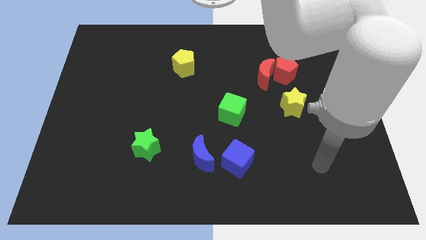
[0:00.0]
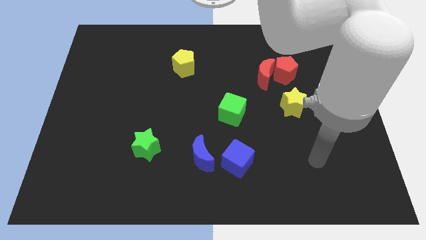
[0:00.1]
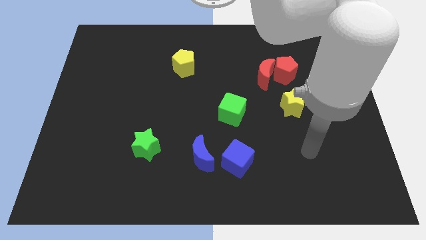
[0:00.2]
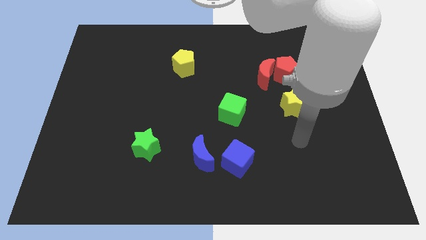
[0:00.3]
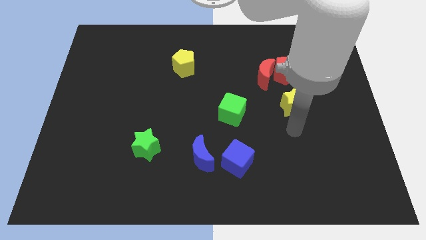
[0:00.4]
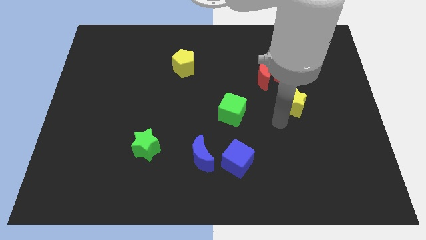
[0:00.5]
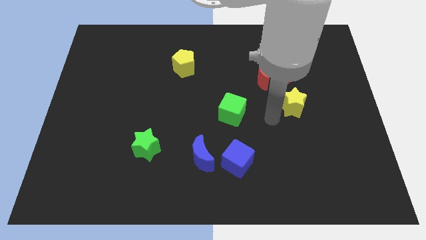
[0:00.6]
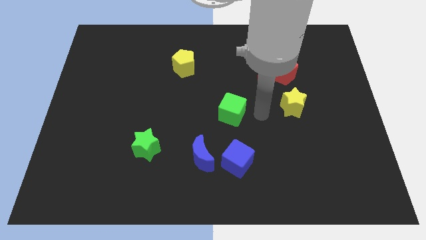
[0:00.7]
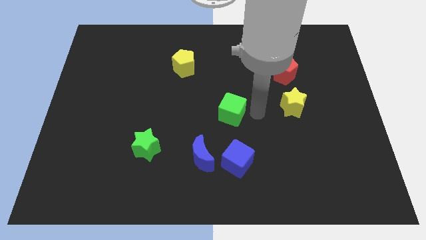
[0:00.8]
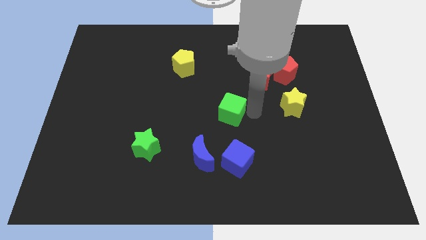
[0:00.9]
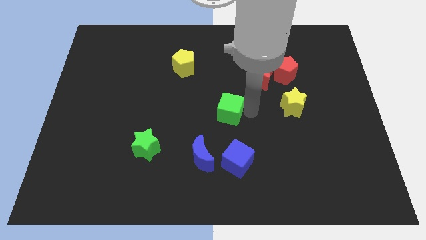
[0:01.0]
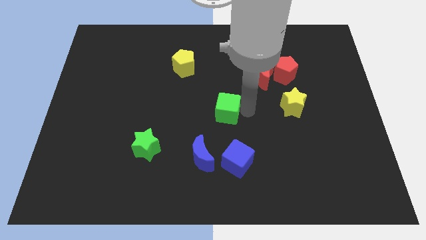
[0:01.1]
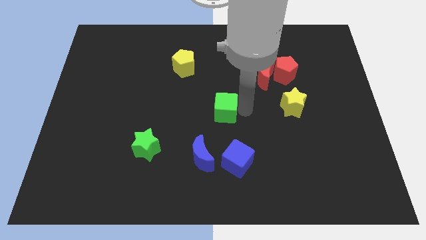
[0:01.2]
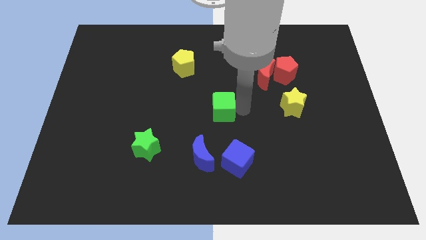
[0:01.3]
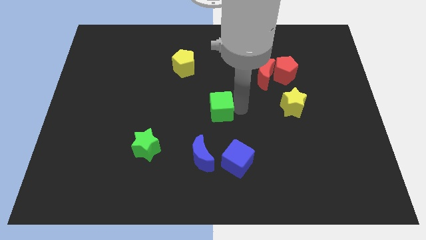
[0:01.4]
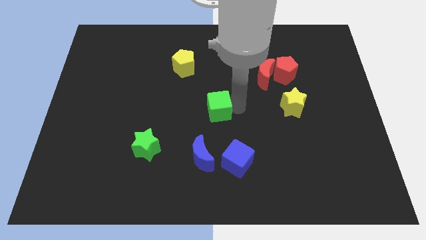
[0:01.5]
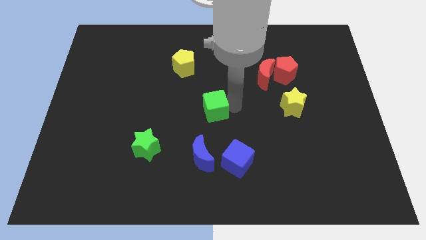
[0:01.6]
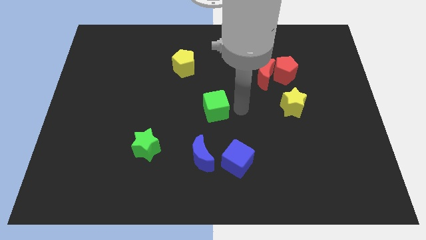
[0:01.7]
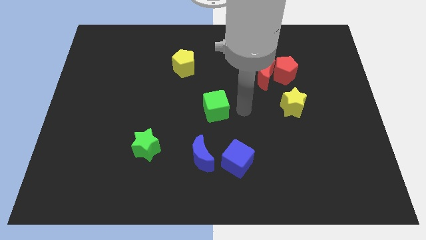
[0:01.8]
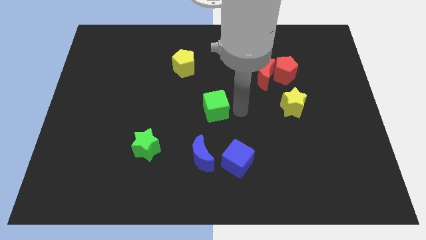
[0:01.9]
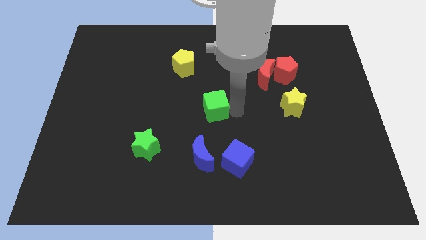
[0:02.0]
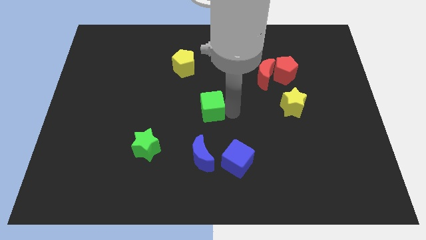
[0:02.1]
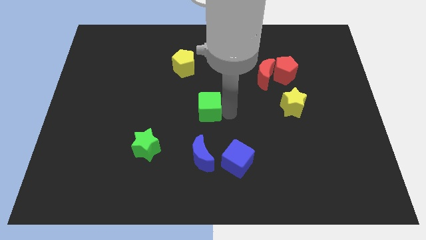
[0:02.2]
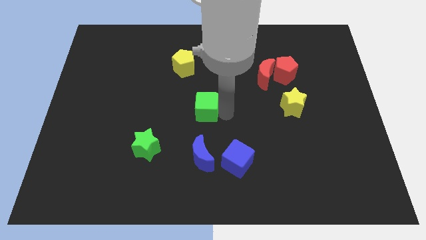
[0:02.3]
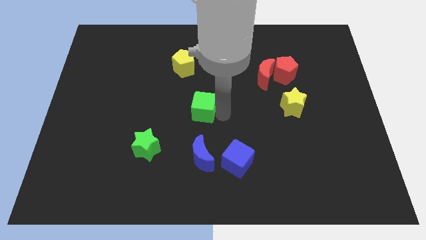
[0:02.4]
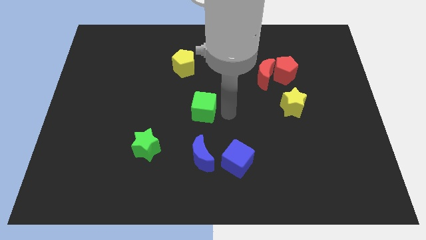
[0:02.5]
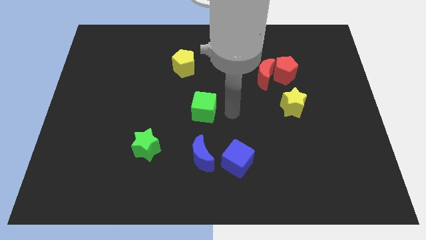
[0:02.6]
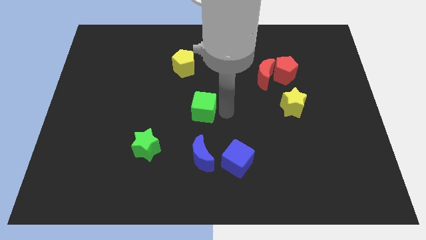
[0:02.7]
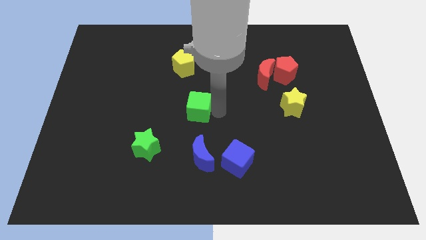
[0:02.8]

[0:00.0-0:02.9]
move the green cube to the left slightly

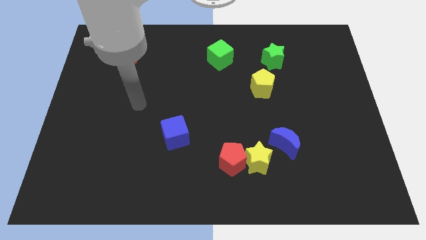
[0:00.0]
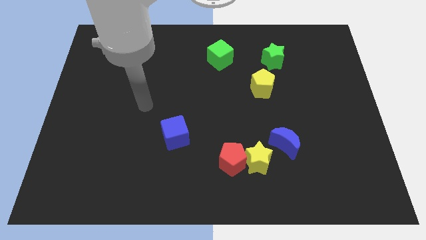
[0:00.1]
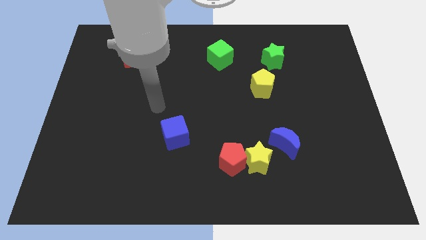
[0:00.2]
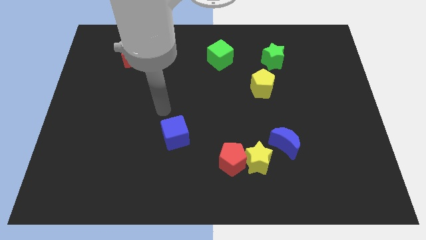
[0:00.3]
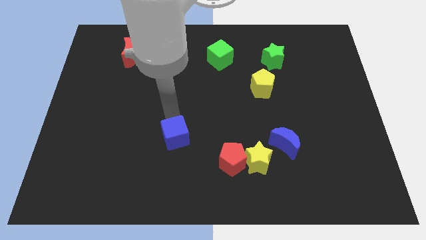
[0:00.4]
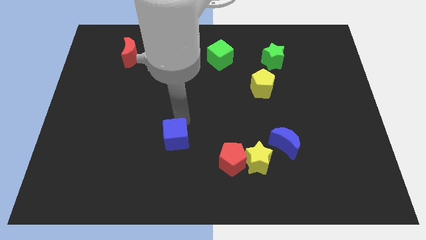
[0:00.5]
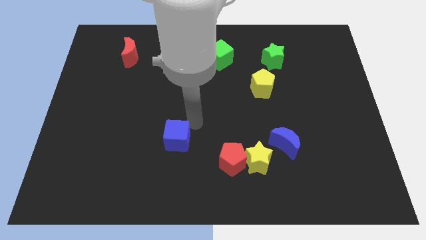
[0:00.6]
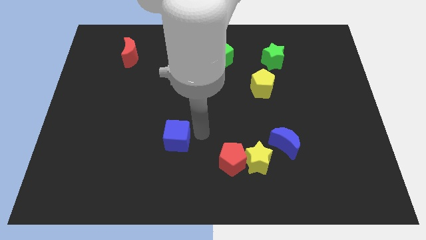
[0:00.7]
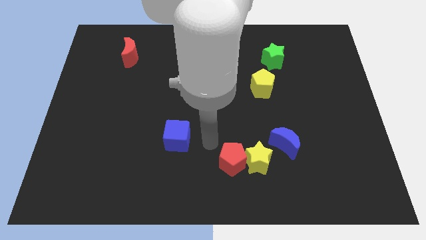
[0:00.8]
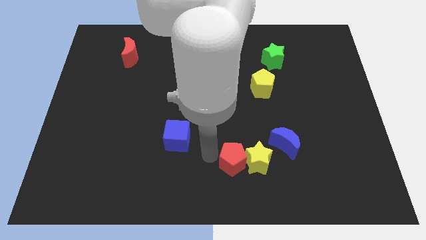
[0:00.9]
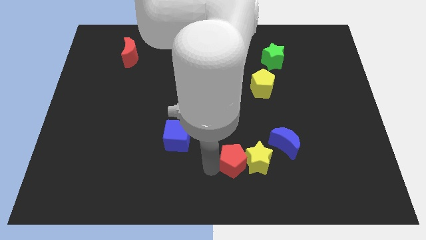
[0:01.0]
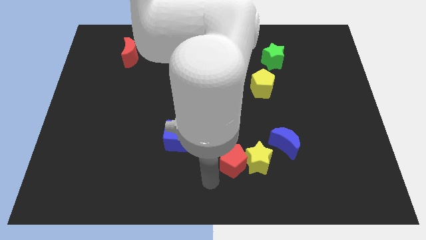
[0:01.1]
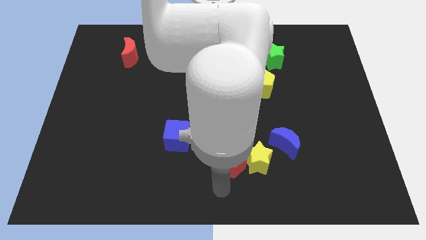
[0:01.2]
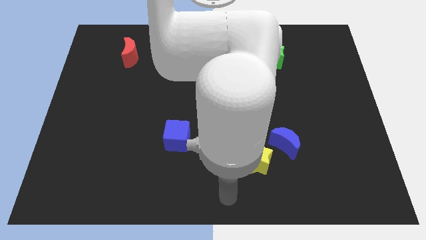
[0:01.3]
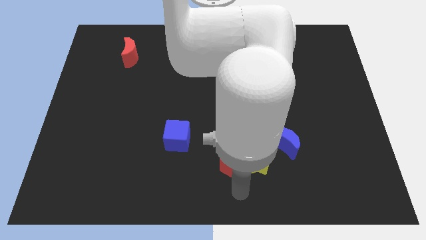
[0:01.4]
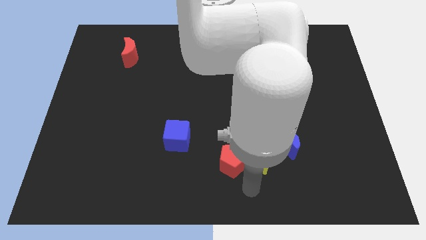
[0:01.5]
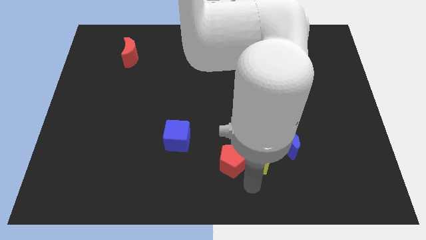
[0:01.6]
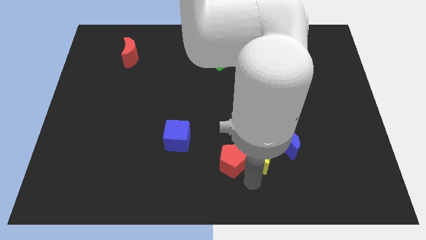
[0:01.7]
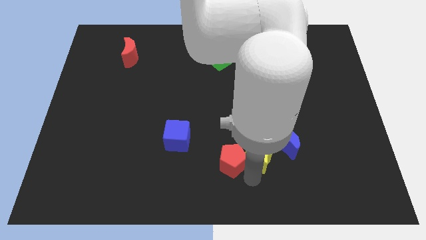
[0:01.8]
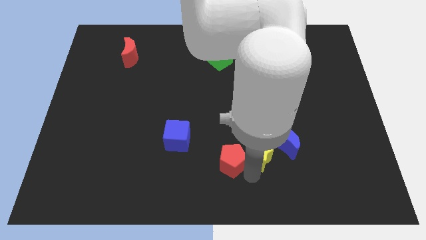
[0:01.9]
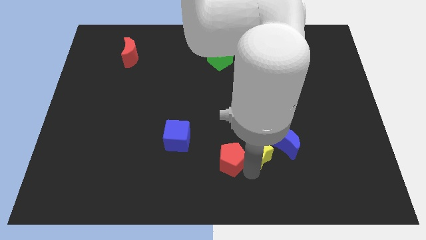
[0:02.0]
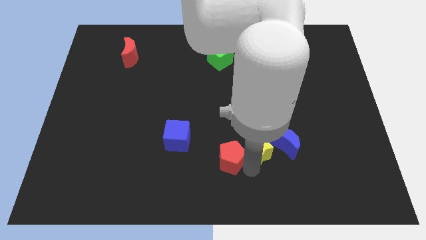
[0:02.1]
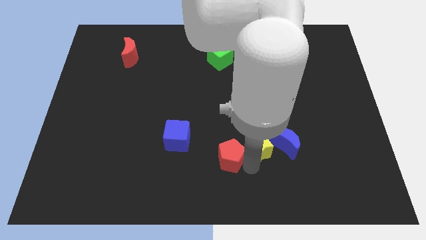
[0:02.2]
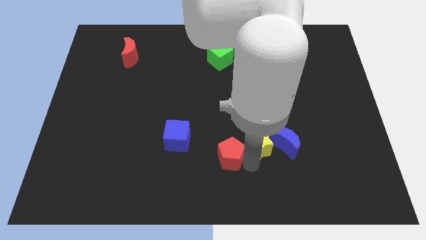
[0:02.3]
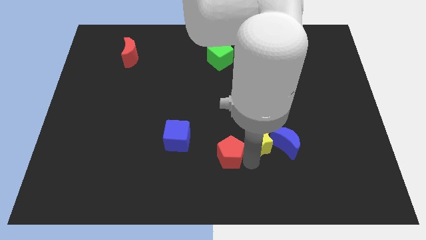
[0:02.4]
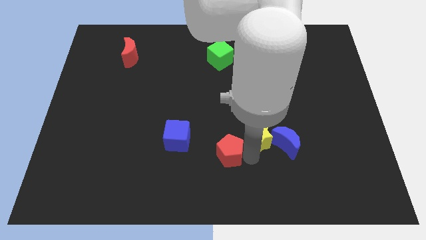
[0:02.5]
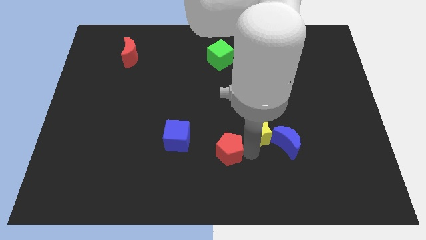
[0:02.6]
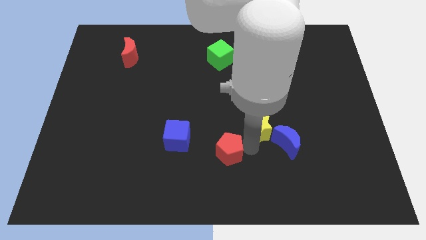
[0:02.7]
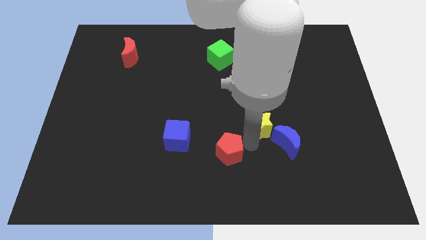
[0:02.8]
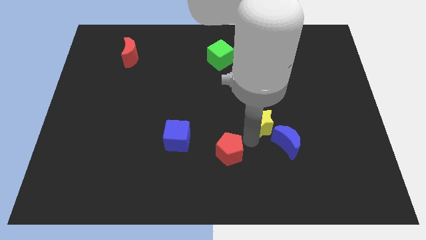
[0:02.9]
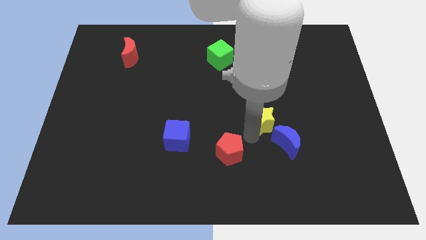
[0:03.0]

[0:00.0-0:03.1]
slightly slide the yellow star upwards and to the right

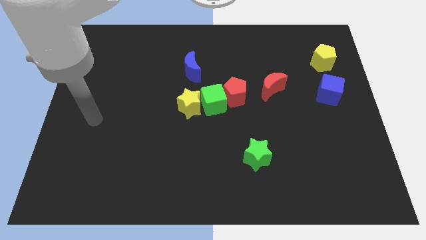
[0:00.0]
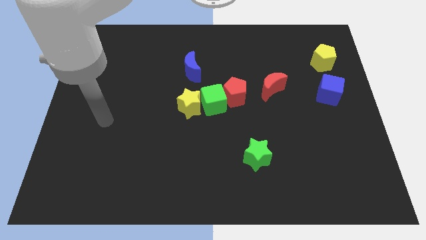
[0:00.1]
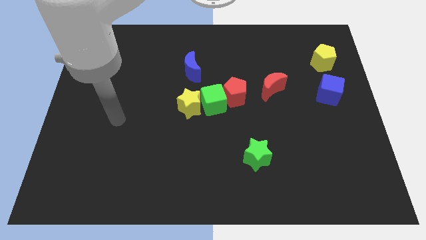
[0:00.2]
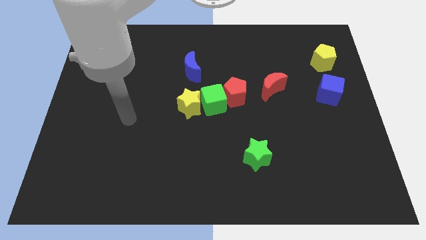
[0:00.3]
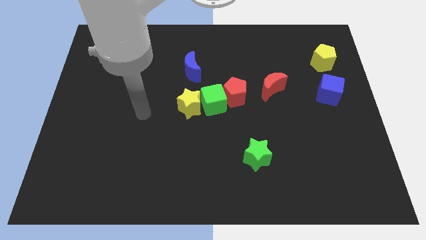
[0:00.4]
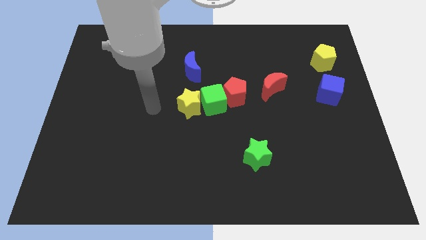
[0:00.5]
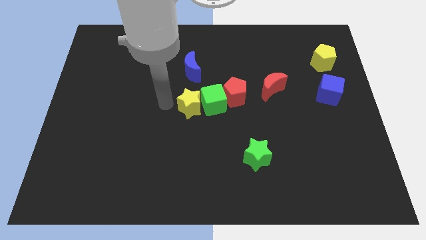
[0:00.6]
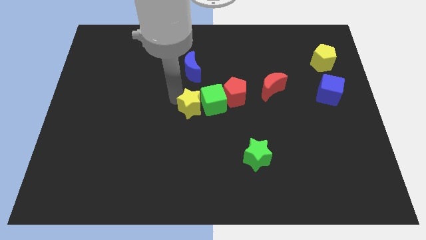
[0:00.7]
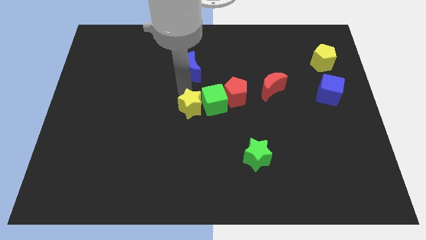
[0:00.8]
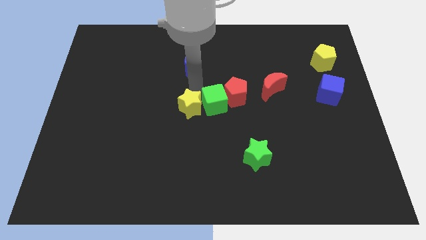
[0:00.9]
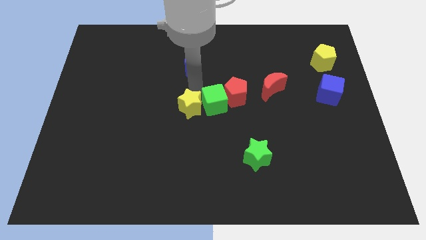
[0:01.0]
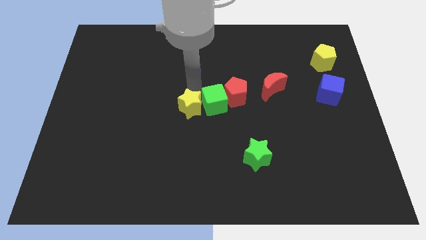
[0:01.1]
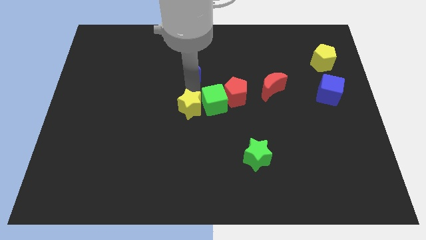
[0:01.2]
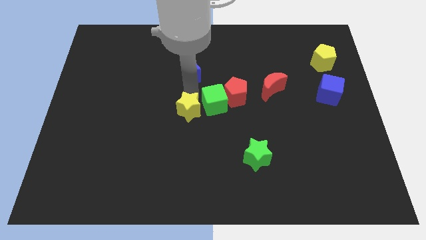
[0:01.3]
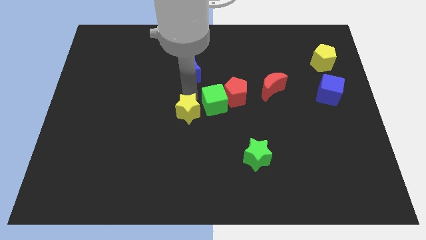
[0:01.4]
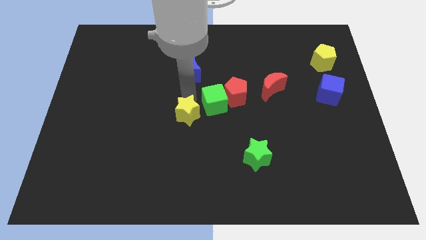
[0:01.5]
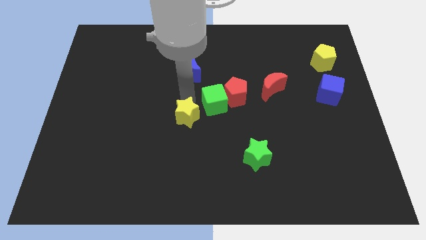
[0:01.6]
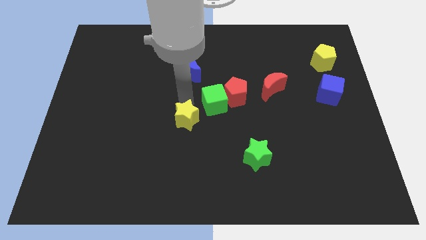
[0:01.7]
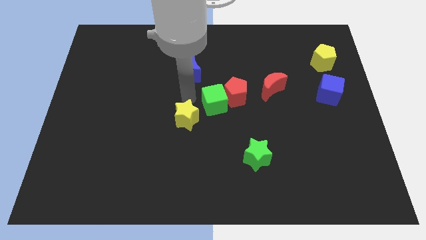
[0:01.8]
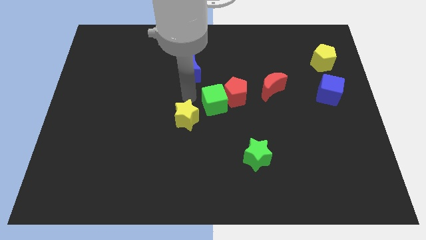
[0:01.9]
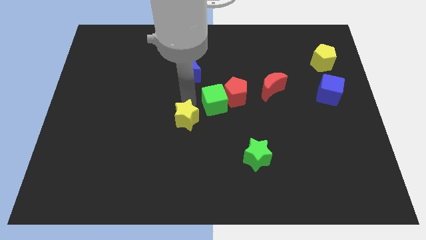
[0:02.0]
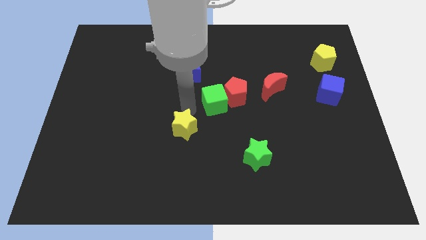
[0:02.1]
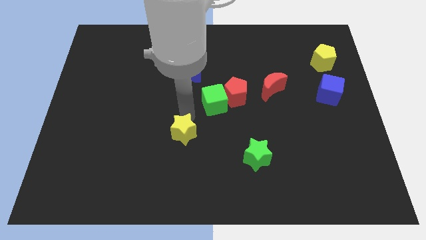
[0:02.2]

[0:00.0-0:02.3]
slightly push the yellow star down

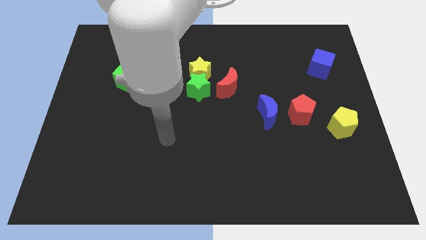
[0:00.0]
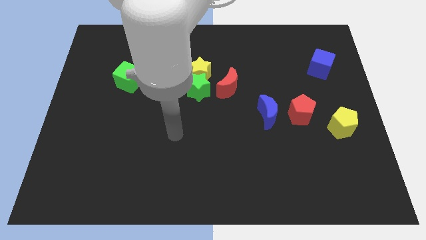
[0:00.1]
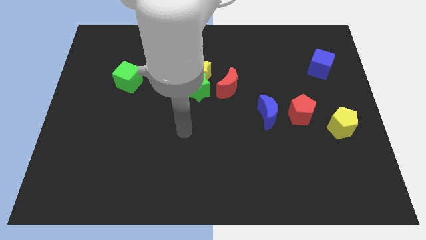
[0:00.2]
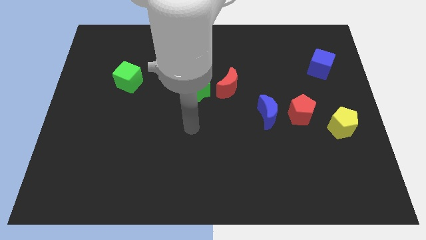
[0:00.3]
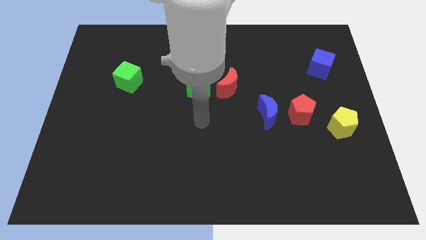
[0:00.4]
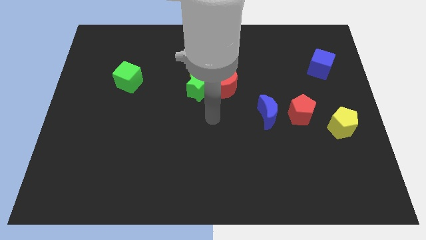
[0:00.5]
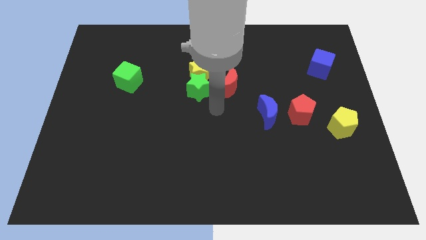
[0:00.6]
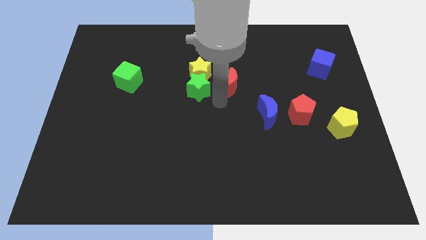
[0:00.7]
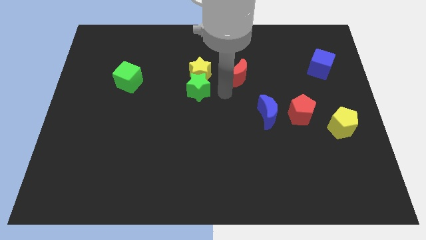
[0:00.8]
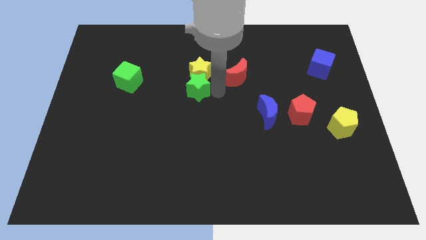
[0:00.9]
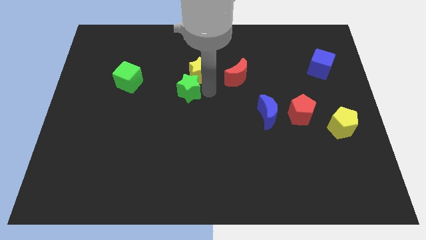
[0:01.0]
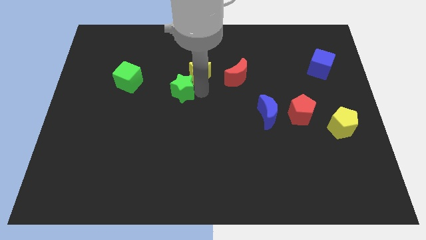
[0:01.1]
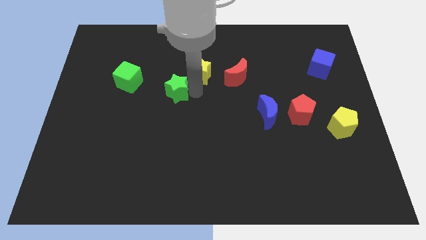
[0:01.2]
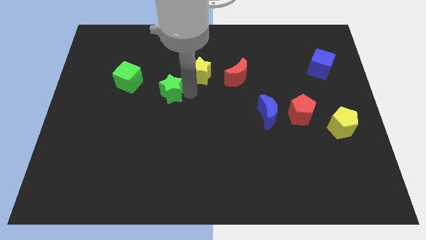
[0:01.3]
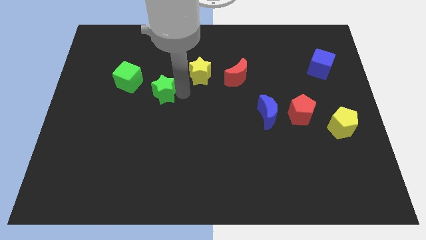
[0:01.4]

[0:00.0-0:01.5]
push the green star a bit to the left
